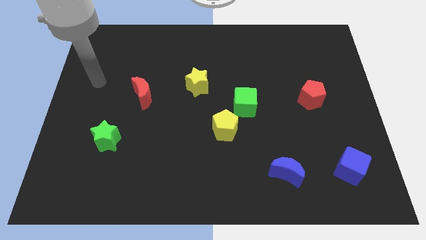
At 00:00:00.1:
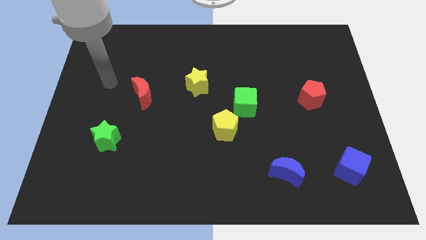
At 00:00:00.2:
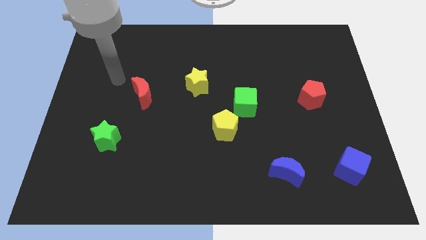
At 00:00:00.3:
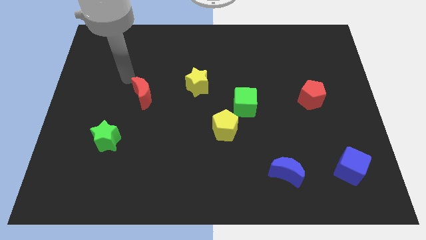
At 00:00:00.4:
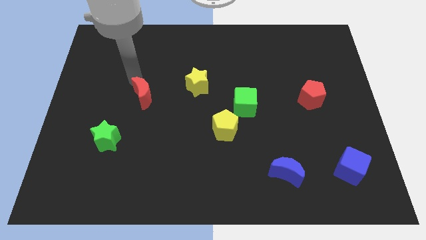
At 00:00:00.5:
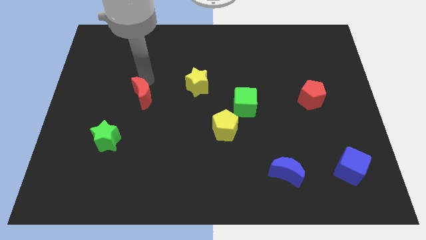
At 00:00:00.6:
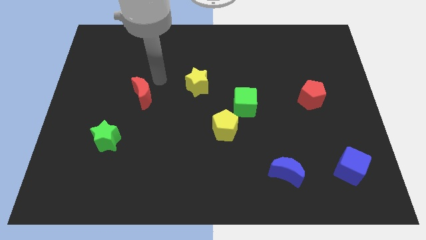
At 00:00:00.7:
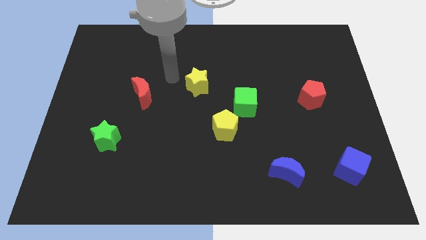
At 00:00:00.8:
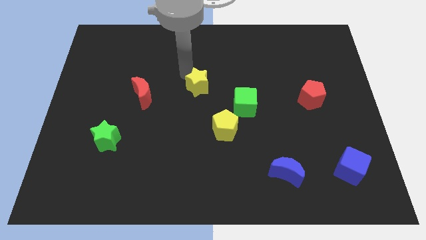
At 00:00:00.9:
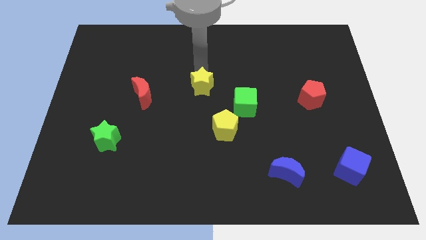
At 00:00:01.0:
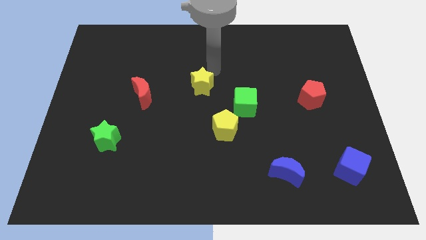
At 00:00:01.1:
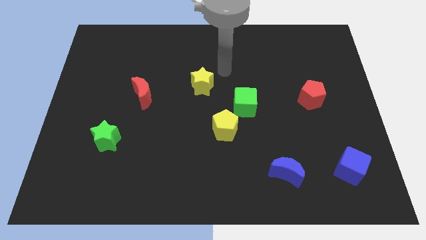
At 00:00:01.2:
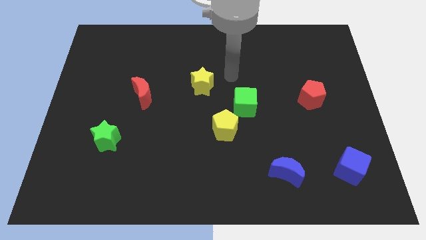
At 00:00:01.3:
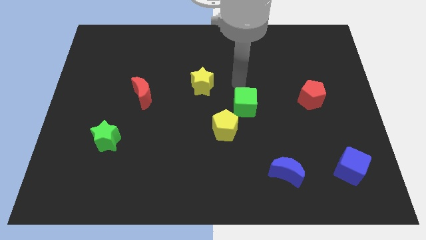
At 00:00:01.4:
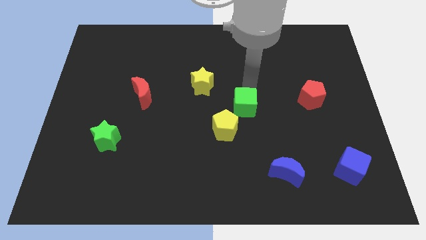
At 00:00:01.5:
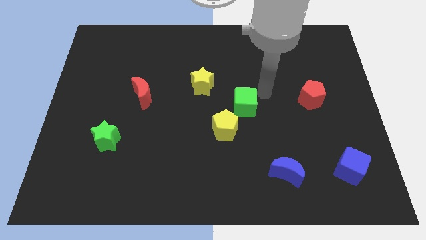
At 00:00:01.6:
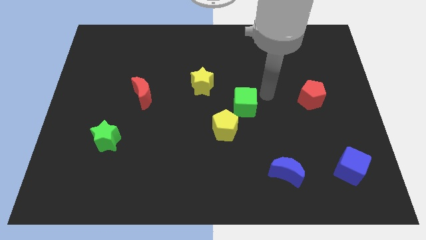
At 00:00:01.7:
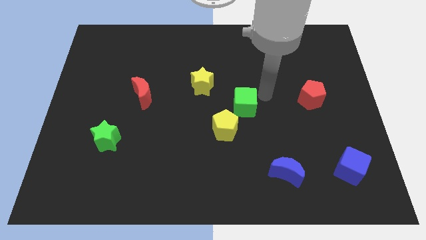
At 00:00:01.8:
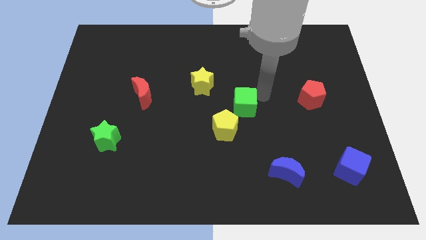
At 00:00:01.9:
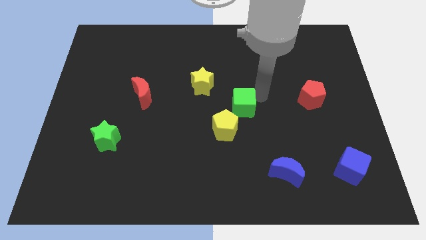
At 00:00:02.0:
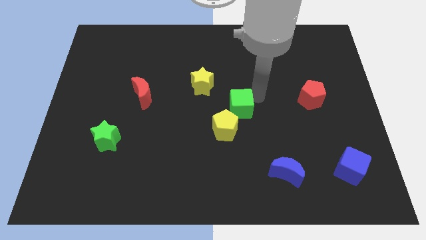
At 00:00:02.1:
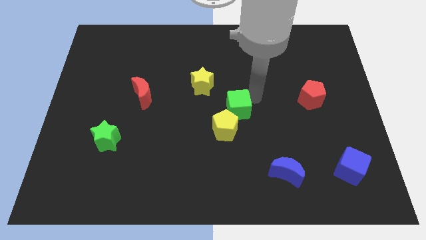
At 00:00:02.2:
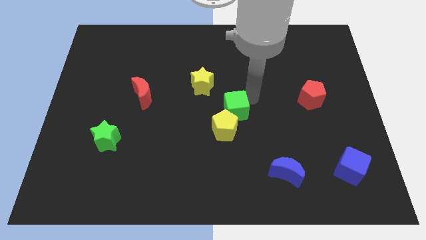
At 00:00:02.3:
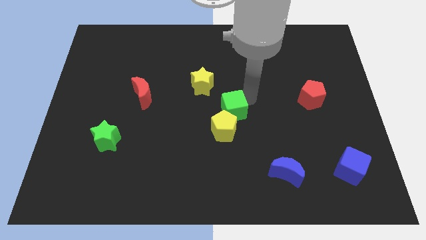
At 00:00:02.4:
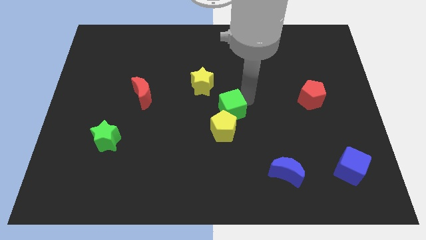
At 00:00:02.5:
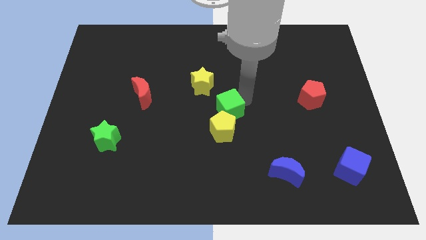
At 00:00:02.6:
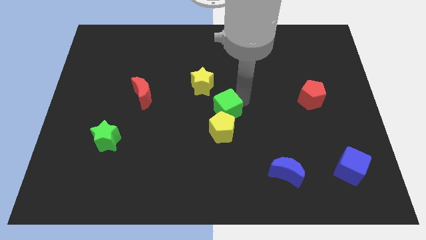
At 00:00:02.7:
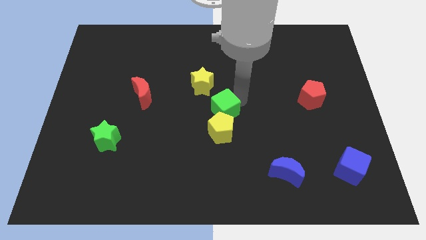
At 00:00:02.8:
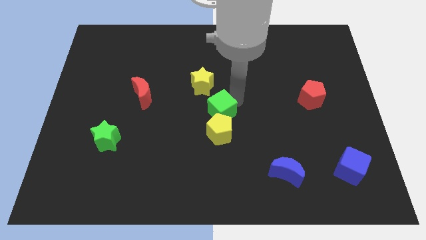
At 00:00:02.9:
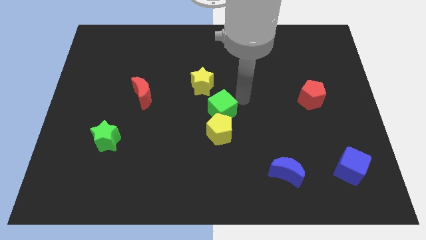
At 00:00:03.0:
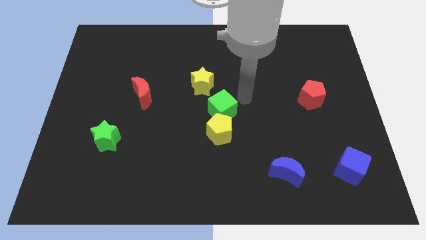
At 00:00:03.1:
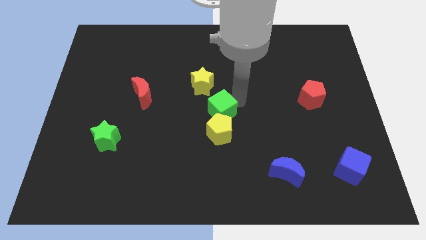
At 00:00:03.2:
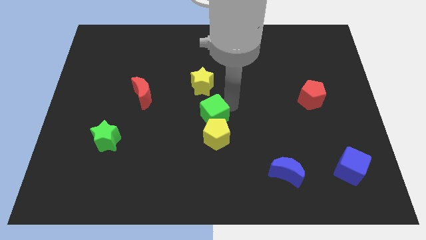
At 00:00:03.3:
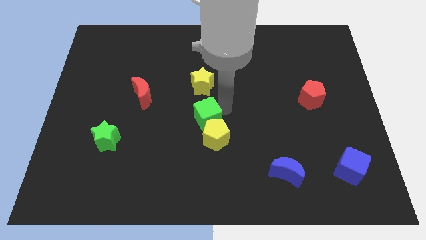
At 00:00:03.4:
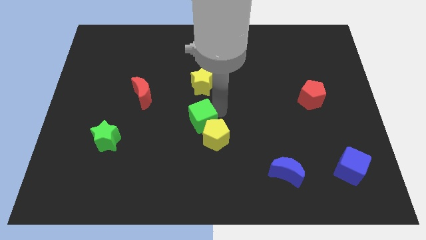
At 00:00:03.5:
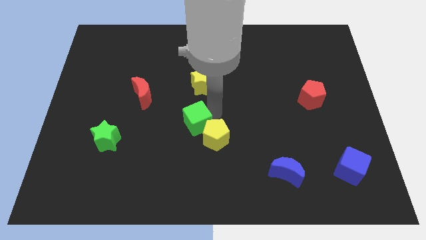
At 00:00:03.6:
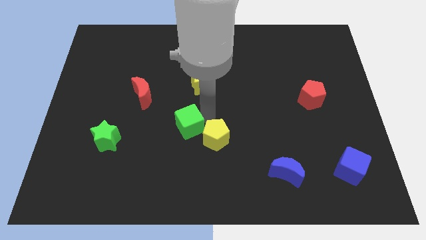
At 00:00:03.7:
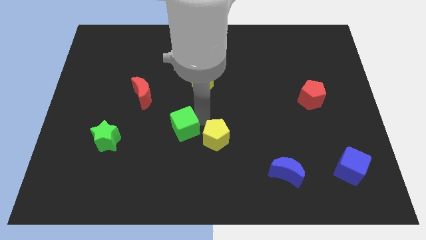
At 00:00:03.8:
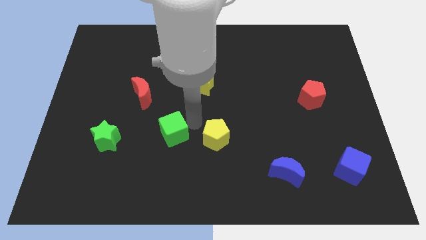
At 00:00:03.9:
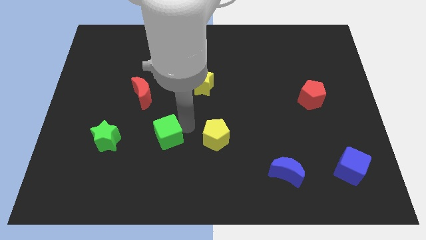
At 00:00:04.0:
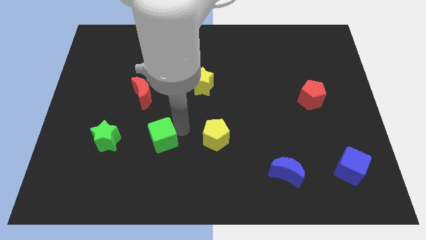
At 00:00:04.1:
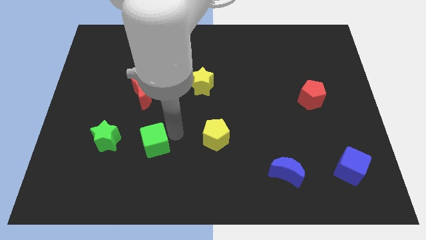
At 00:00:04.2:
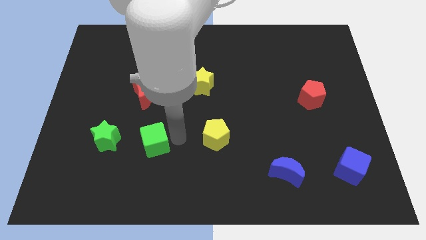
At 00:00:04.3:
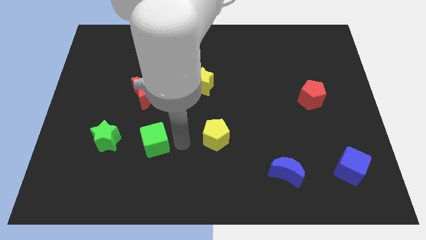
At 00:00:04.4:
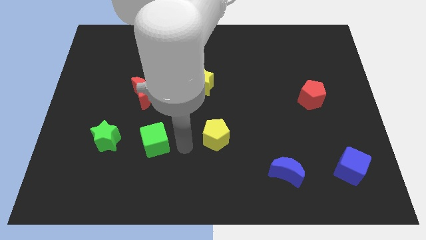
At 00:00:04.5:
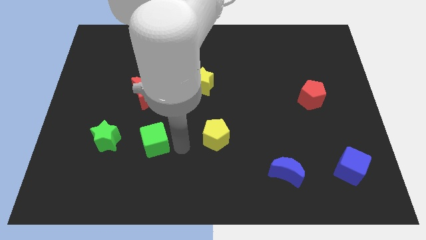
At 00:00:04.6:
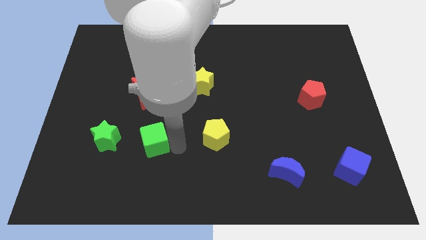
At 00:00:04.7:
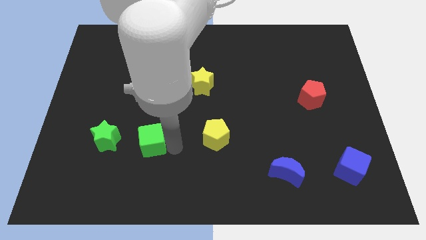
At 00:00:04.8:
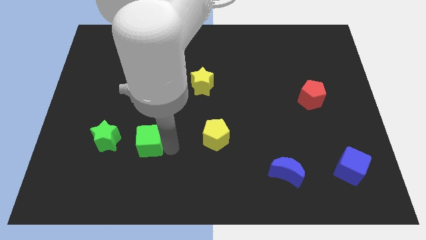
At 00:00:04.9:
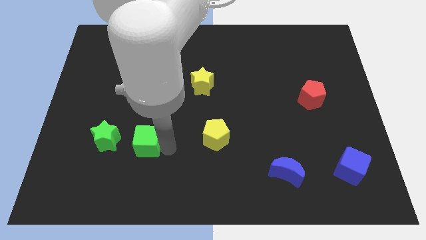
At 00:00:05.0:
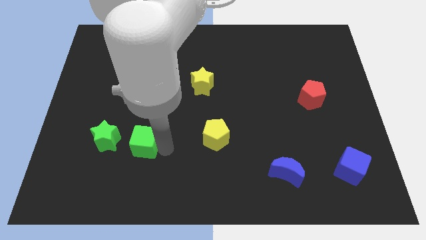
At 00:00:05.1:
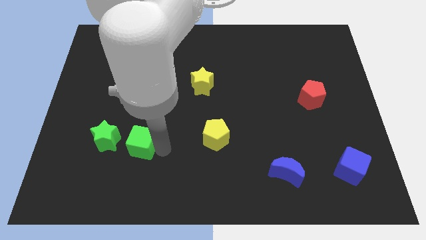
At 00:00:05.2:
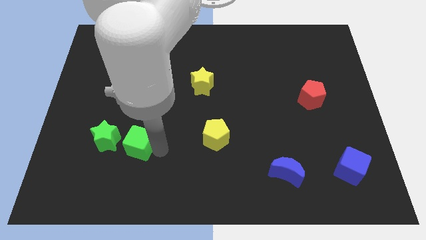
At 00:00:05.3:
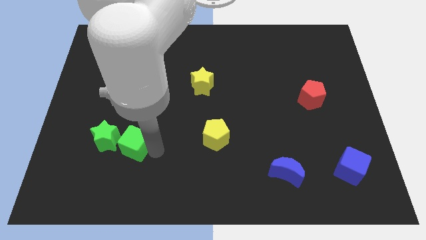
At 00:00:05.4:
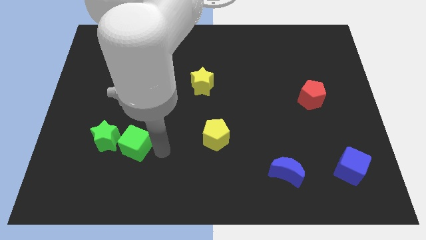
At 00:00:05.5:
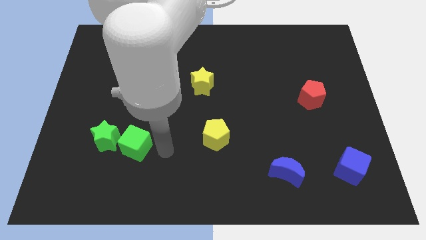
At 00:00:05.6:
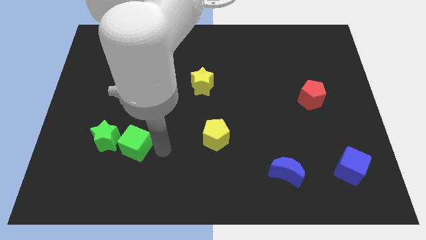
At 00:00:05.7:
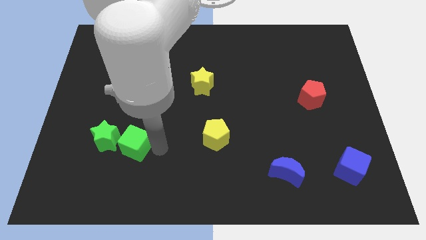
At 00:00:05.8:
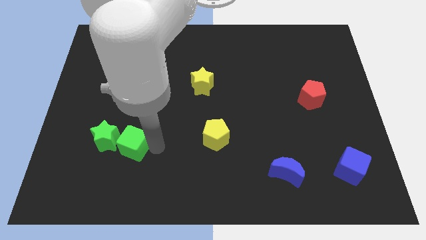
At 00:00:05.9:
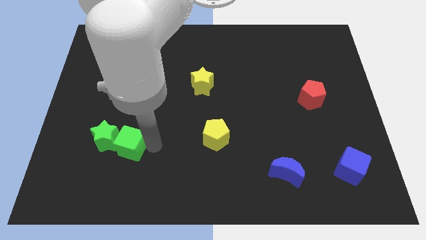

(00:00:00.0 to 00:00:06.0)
slide the green cube next to the green star

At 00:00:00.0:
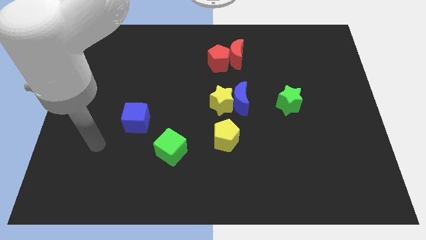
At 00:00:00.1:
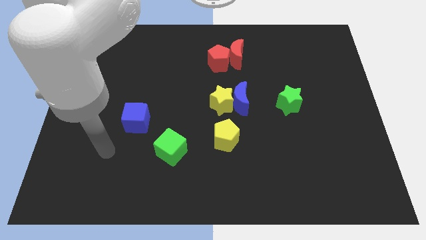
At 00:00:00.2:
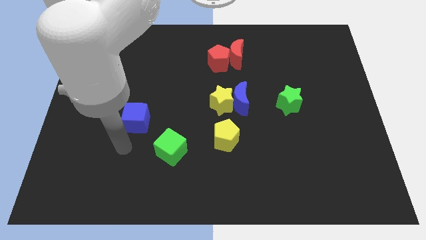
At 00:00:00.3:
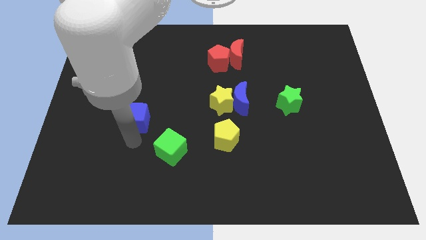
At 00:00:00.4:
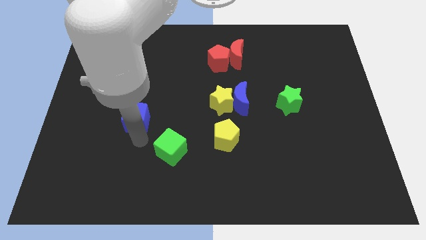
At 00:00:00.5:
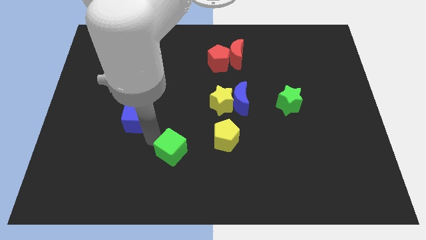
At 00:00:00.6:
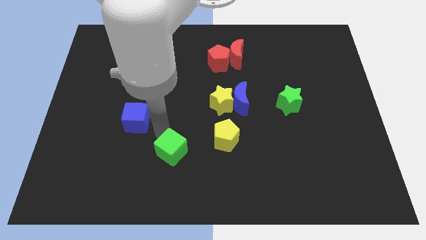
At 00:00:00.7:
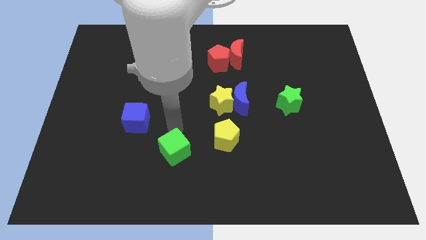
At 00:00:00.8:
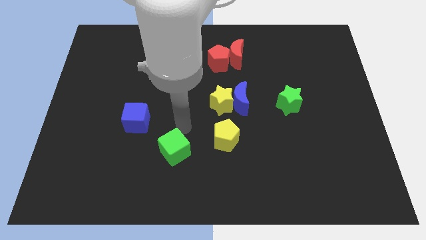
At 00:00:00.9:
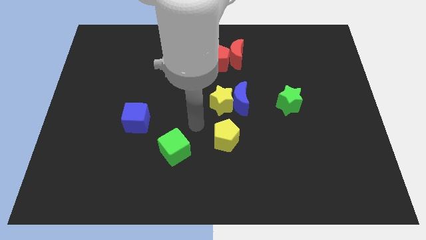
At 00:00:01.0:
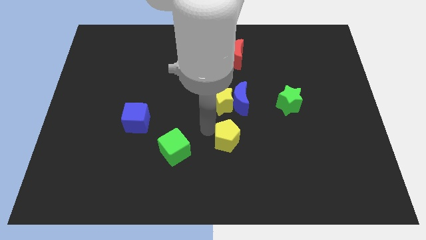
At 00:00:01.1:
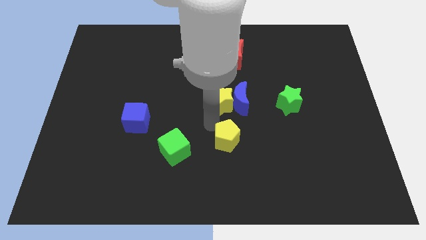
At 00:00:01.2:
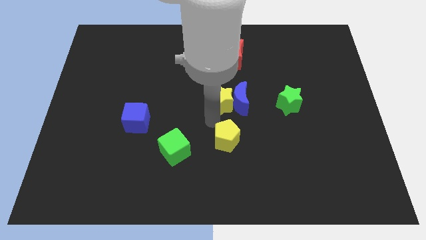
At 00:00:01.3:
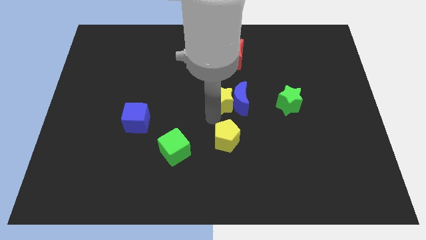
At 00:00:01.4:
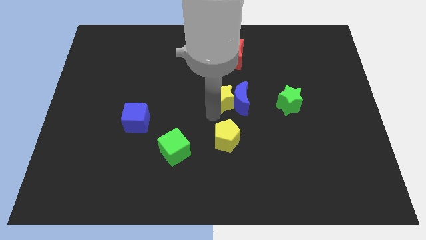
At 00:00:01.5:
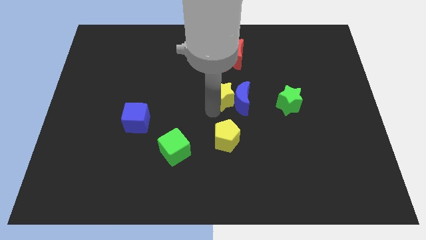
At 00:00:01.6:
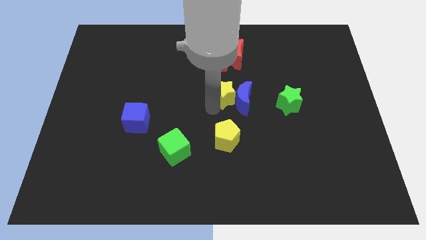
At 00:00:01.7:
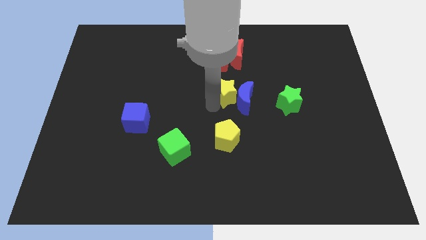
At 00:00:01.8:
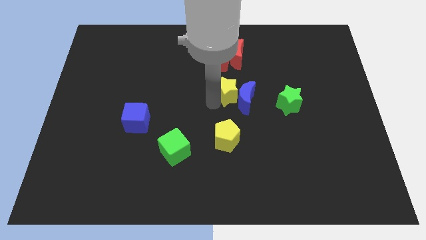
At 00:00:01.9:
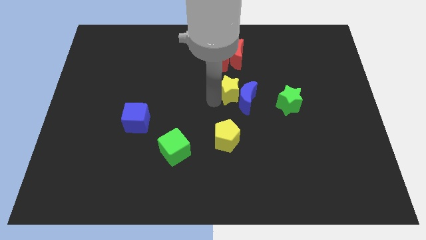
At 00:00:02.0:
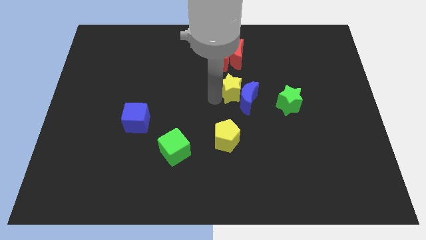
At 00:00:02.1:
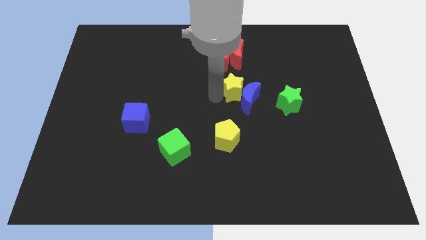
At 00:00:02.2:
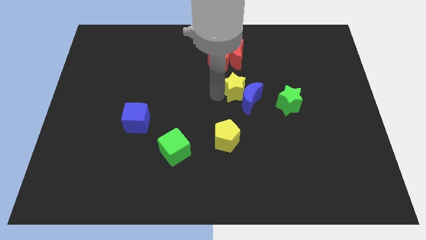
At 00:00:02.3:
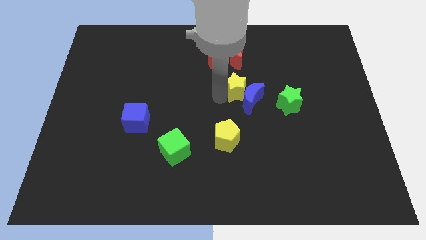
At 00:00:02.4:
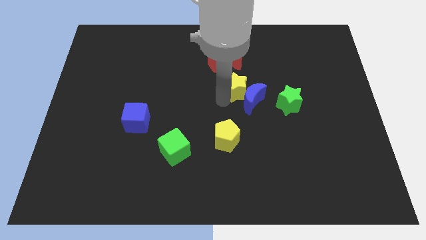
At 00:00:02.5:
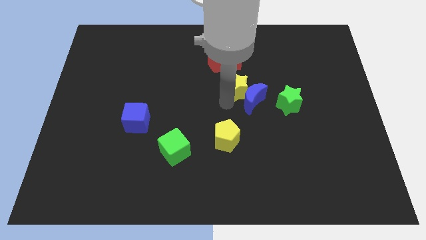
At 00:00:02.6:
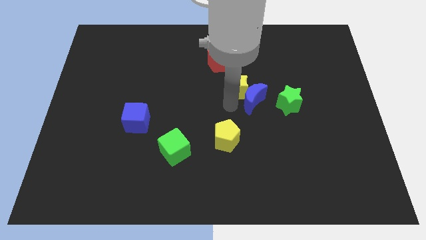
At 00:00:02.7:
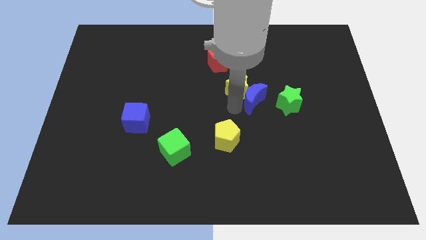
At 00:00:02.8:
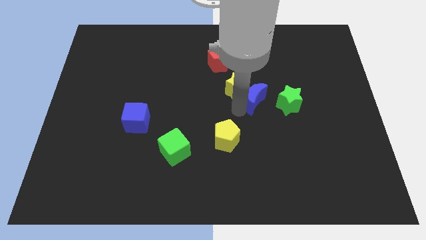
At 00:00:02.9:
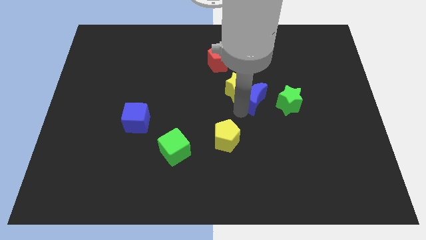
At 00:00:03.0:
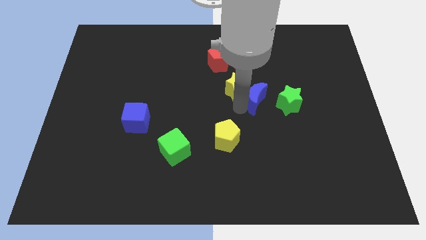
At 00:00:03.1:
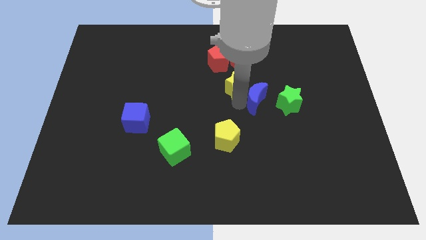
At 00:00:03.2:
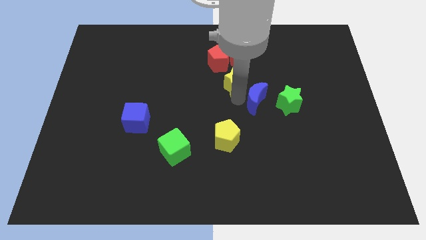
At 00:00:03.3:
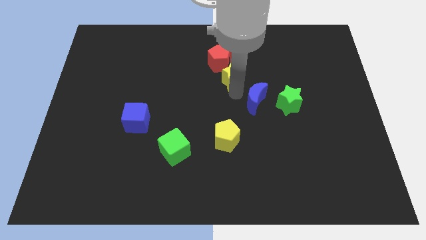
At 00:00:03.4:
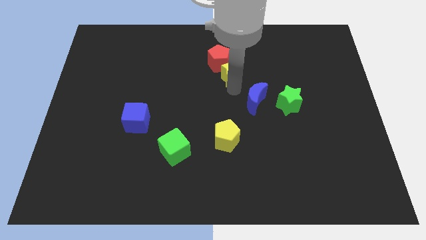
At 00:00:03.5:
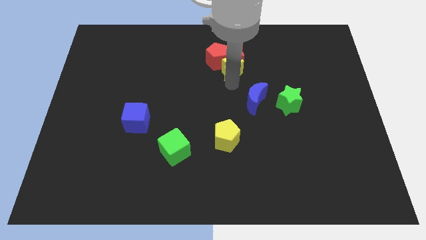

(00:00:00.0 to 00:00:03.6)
push the yellow star next to the red moon
